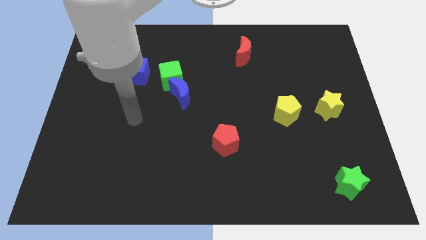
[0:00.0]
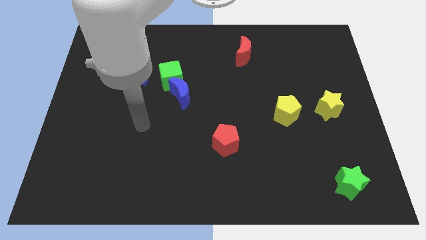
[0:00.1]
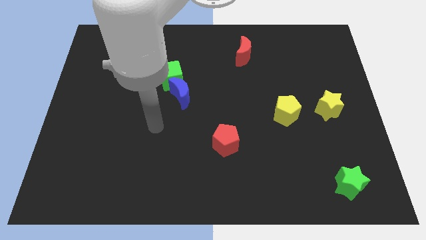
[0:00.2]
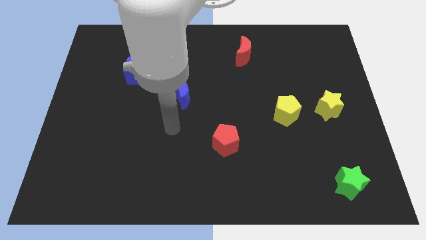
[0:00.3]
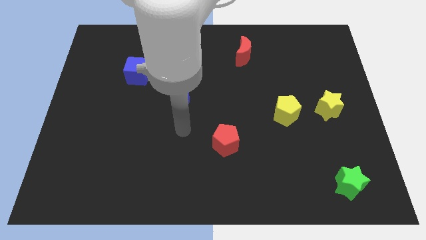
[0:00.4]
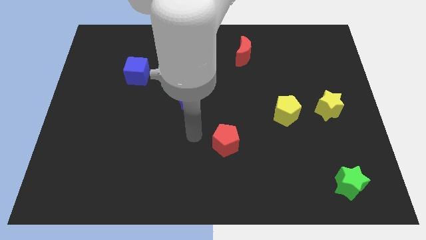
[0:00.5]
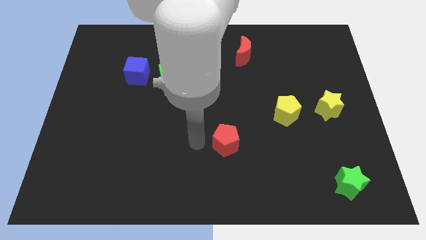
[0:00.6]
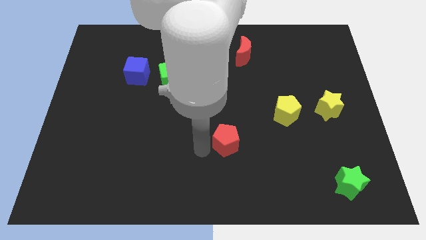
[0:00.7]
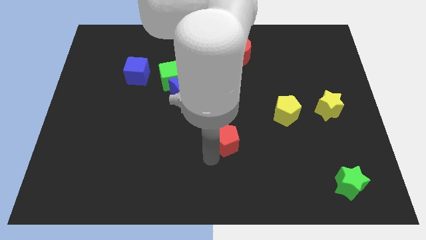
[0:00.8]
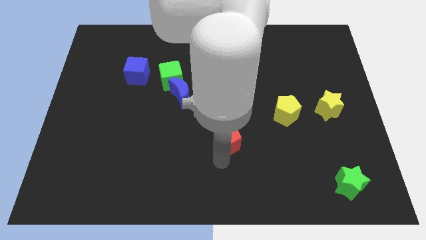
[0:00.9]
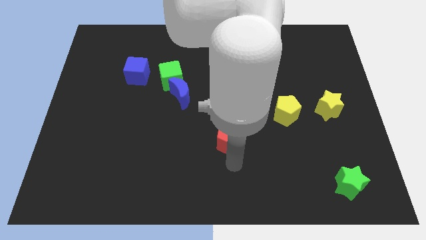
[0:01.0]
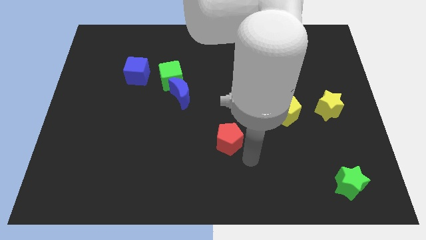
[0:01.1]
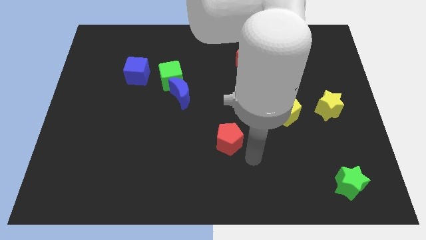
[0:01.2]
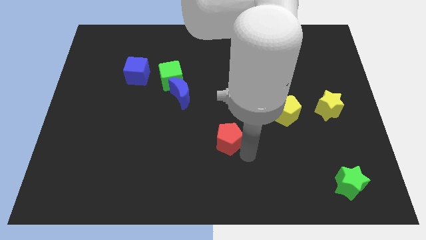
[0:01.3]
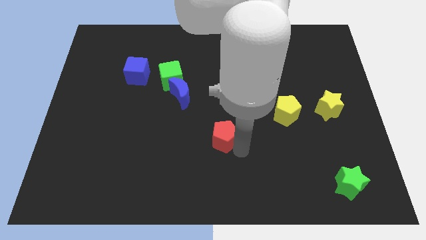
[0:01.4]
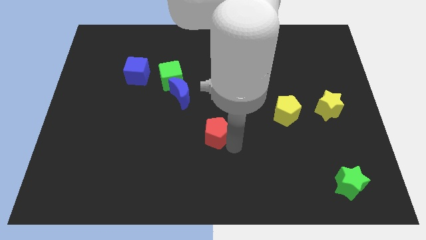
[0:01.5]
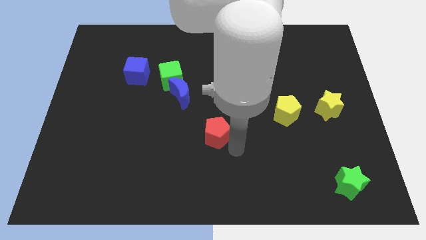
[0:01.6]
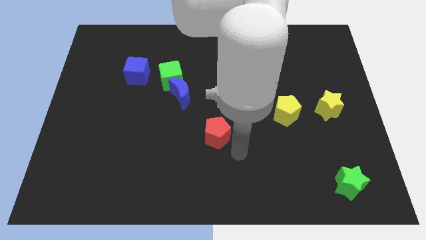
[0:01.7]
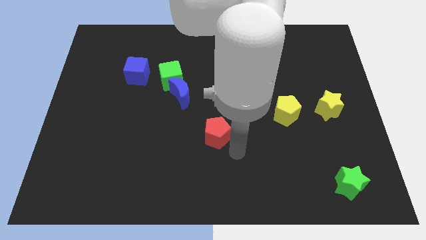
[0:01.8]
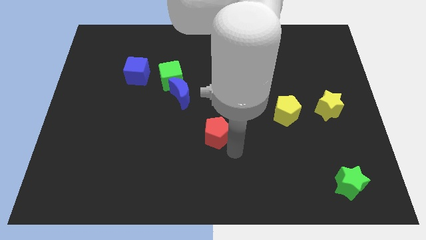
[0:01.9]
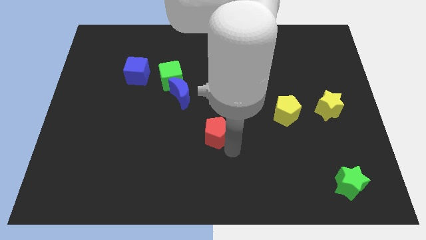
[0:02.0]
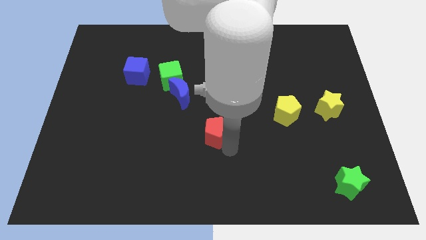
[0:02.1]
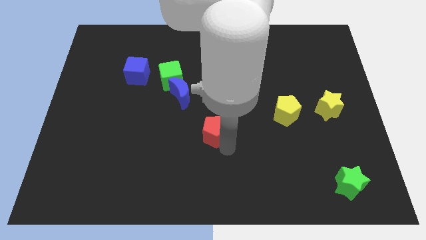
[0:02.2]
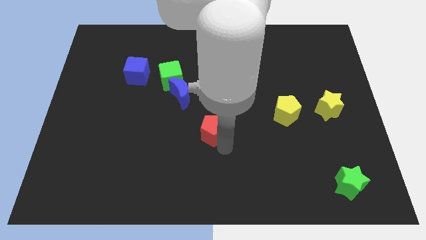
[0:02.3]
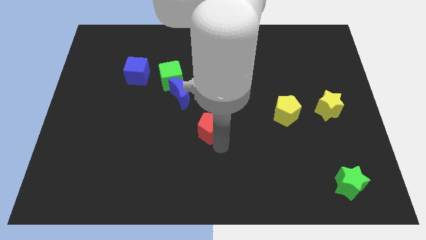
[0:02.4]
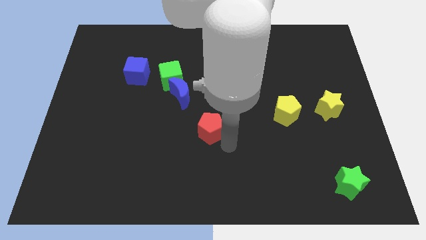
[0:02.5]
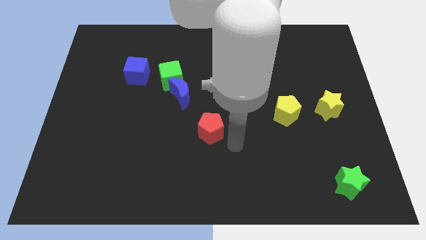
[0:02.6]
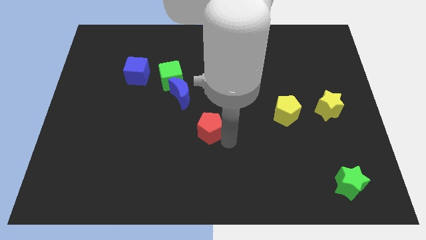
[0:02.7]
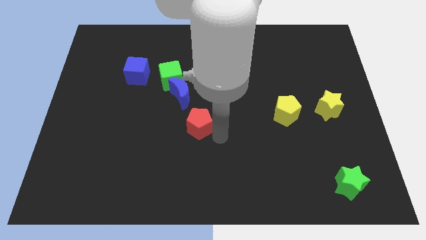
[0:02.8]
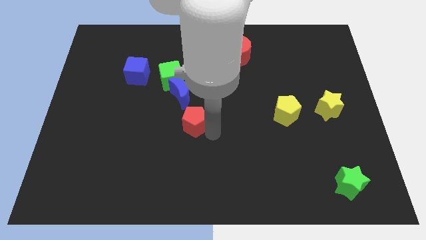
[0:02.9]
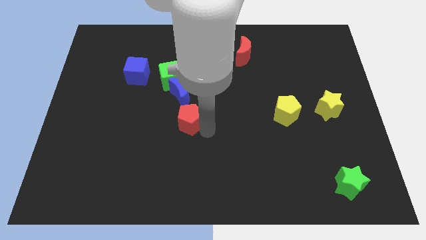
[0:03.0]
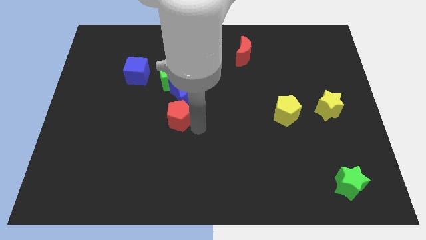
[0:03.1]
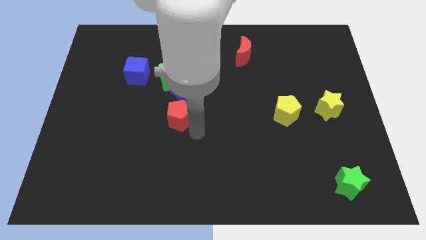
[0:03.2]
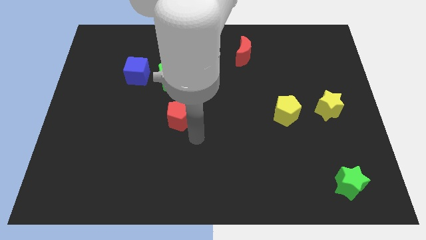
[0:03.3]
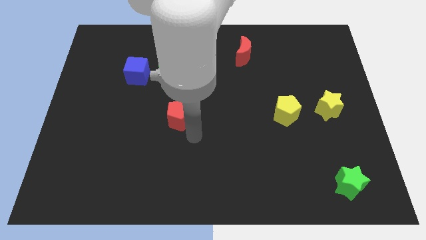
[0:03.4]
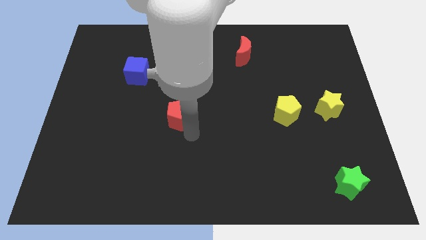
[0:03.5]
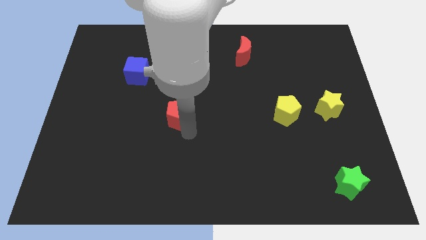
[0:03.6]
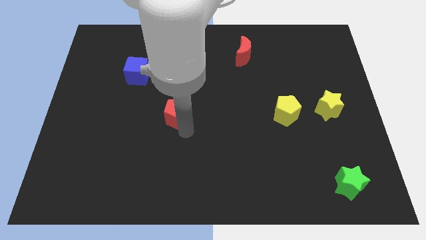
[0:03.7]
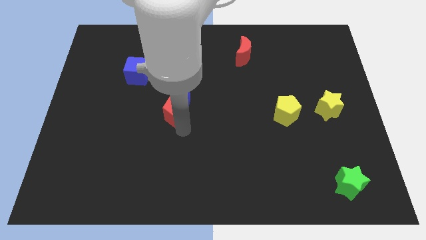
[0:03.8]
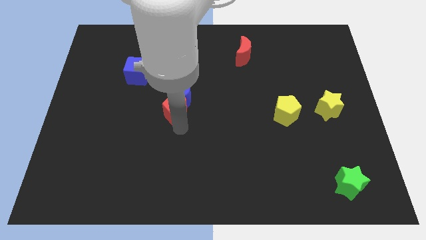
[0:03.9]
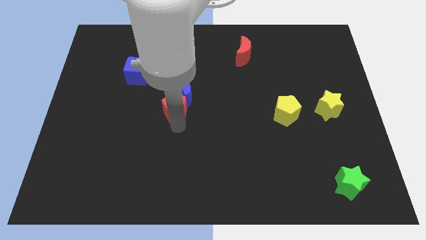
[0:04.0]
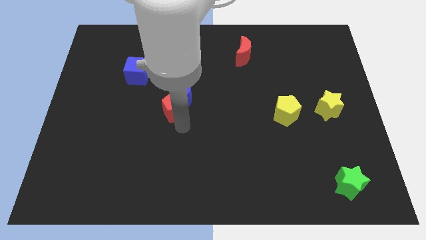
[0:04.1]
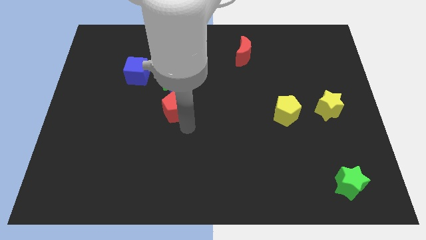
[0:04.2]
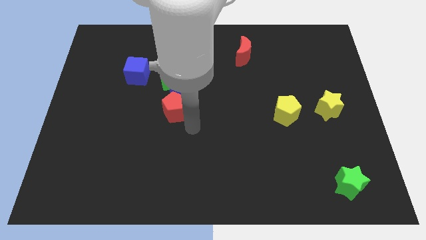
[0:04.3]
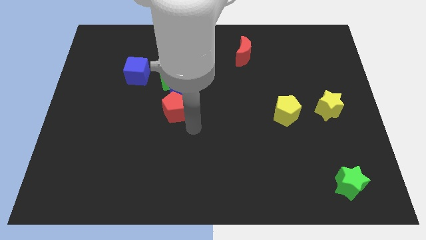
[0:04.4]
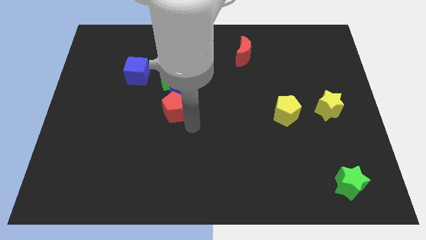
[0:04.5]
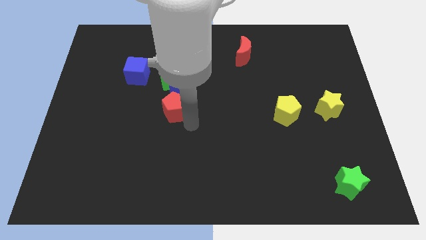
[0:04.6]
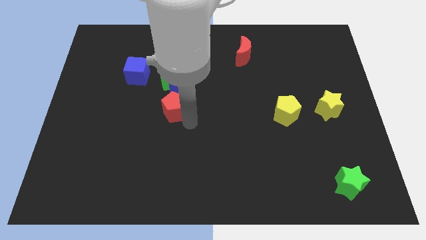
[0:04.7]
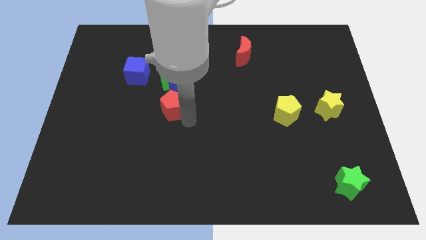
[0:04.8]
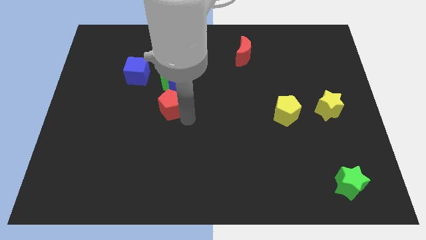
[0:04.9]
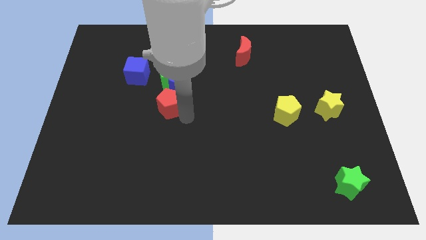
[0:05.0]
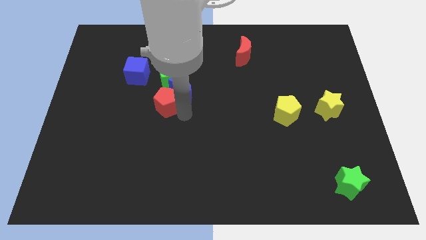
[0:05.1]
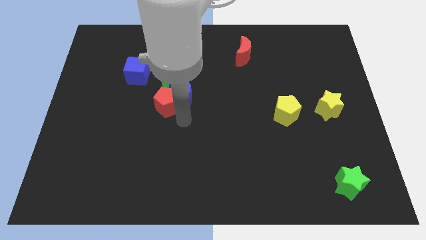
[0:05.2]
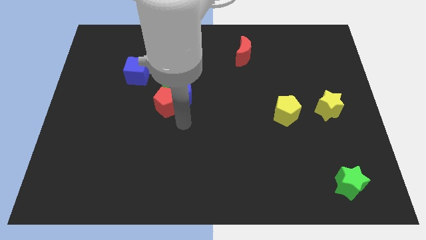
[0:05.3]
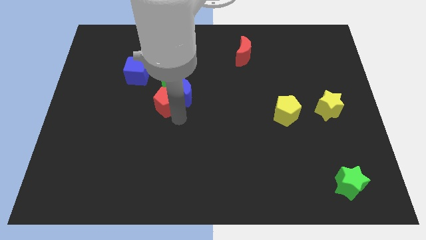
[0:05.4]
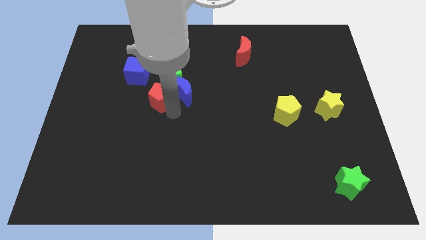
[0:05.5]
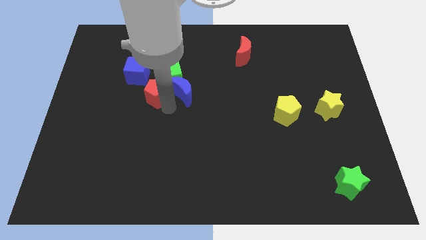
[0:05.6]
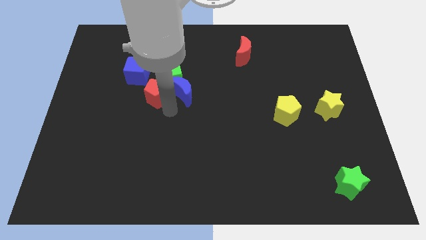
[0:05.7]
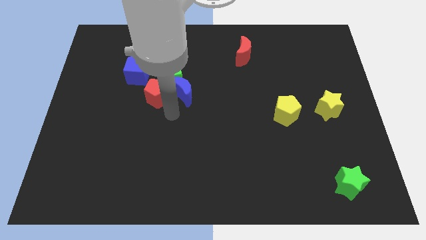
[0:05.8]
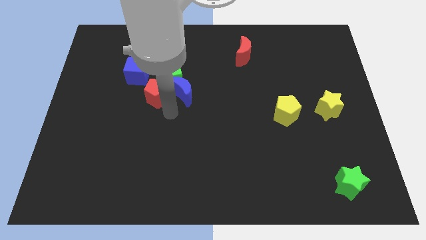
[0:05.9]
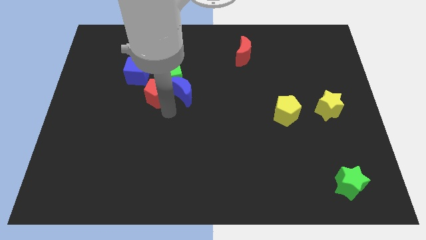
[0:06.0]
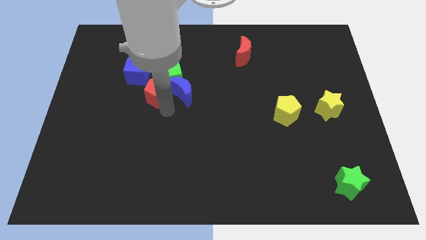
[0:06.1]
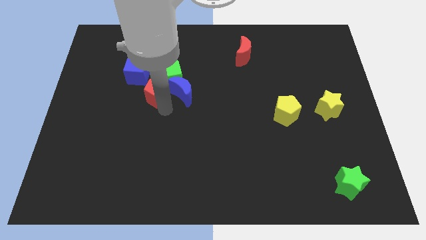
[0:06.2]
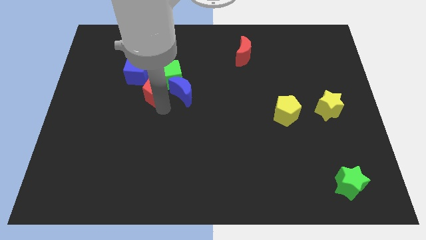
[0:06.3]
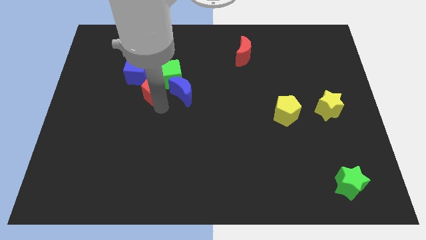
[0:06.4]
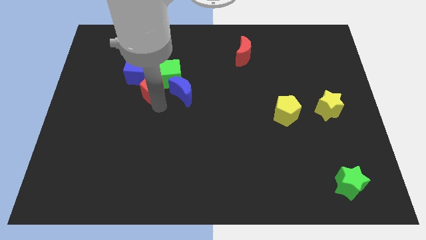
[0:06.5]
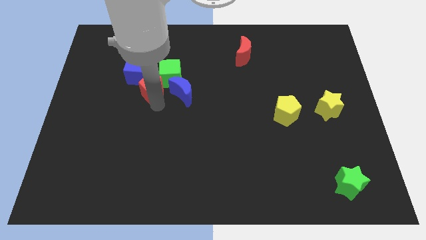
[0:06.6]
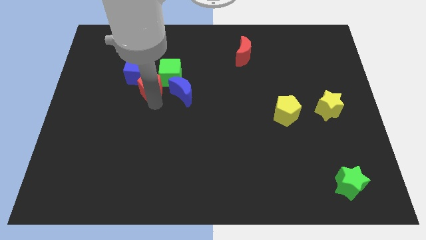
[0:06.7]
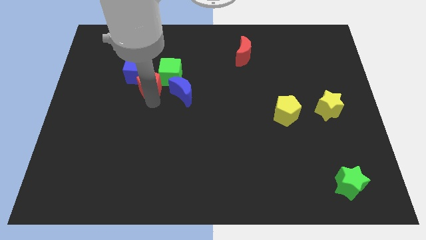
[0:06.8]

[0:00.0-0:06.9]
slide the red pentagon to the blue cube

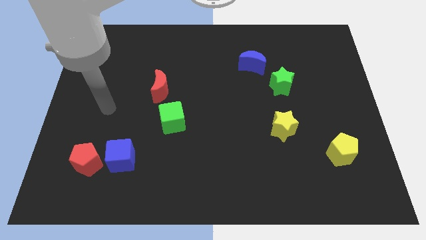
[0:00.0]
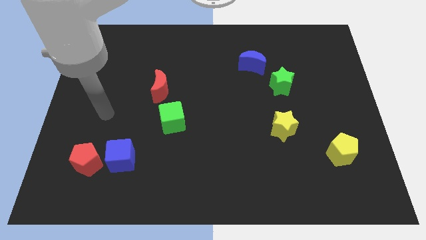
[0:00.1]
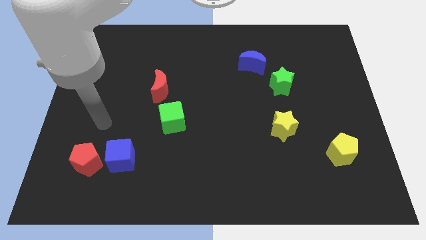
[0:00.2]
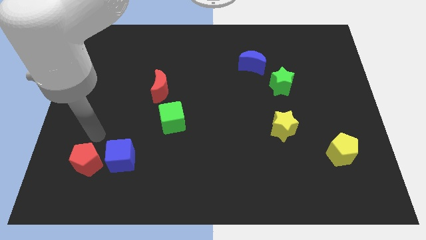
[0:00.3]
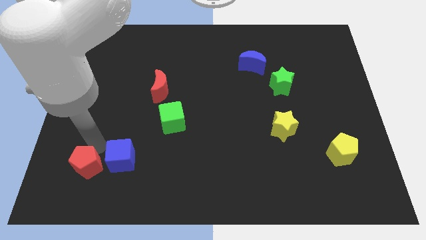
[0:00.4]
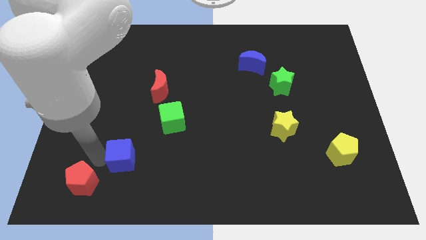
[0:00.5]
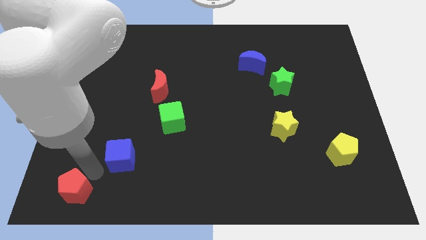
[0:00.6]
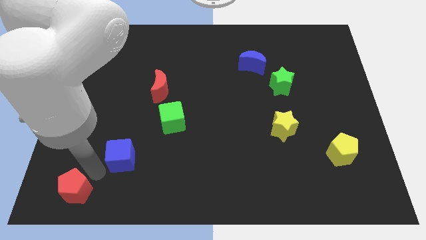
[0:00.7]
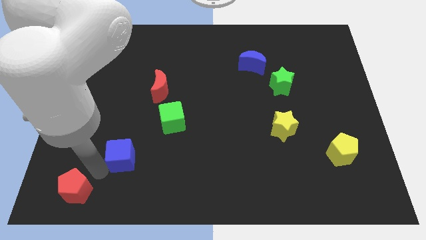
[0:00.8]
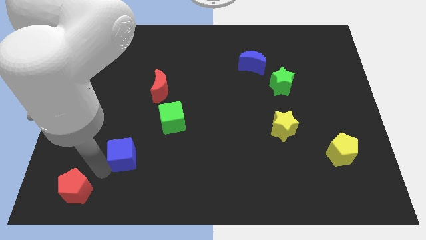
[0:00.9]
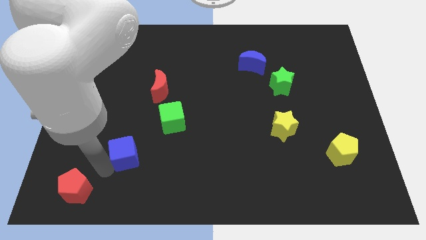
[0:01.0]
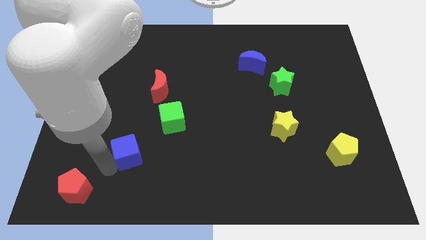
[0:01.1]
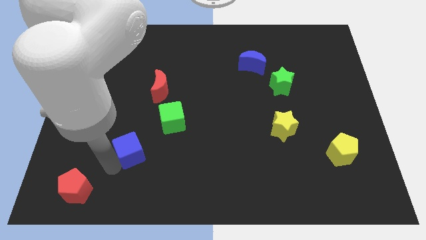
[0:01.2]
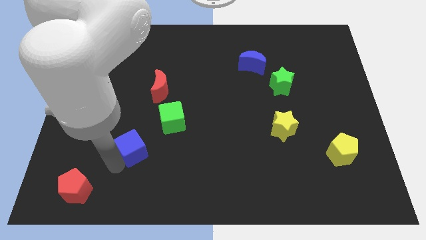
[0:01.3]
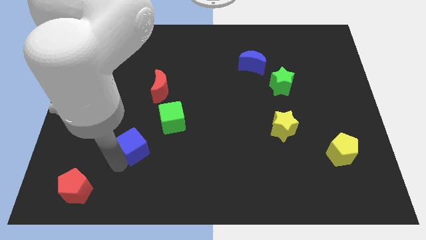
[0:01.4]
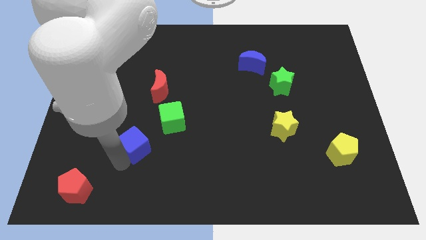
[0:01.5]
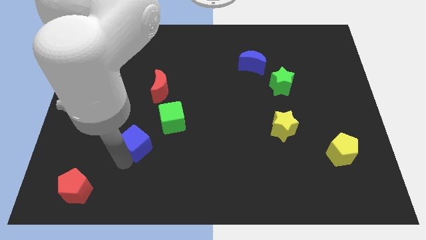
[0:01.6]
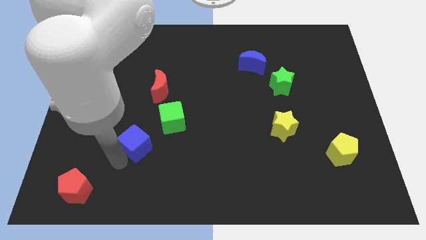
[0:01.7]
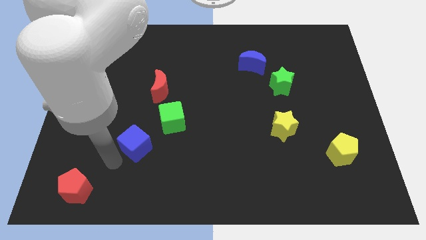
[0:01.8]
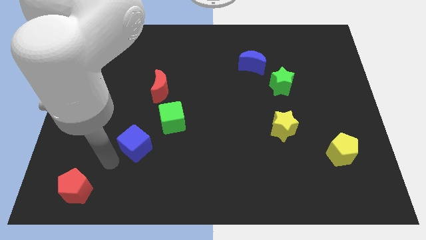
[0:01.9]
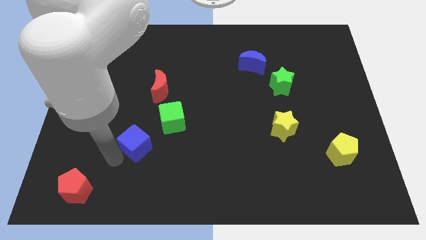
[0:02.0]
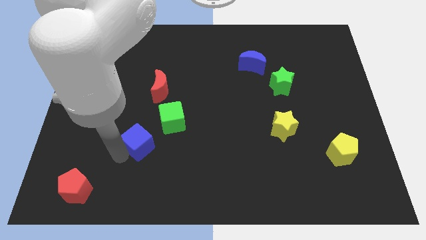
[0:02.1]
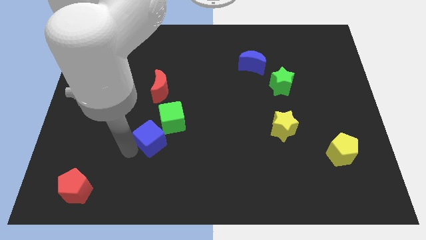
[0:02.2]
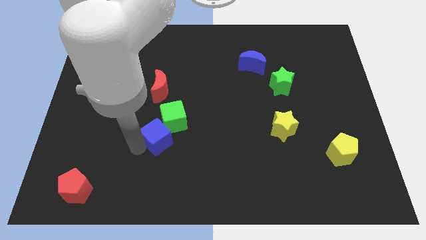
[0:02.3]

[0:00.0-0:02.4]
move the blue cube to the green cube
